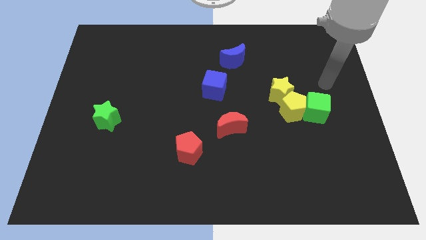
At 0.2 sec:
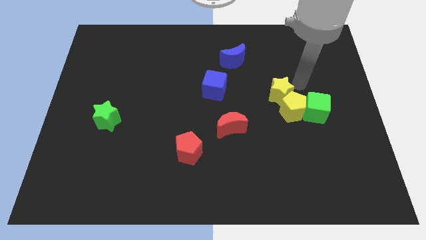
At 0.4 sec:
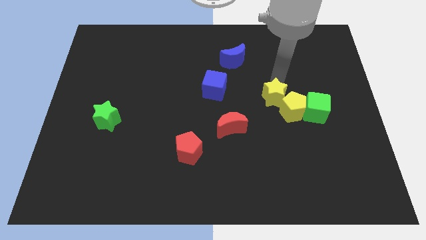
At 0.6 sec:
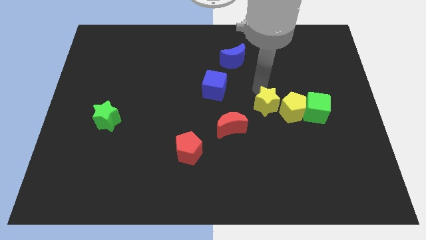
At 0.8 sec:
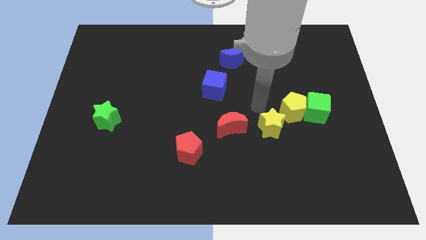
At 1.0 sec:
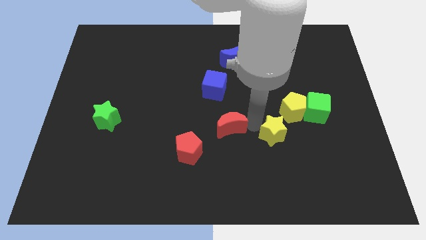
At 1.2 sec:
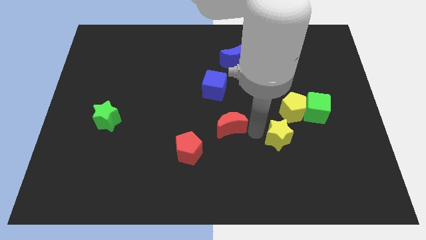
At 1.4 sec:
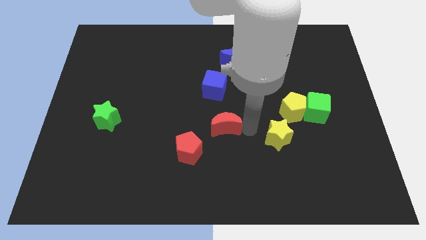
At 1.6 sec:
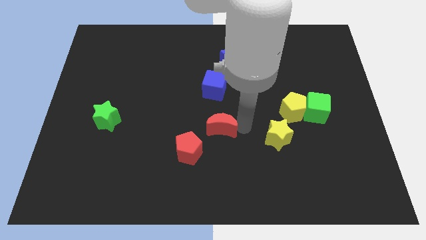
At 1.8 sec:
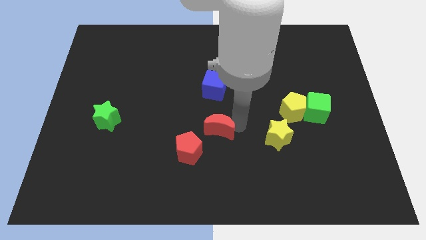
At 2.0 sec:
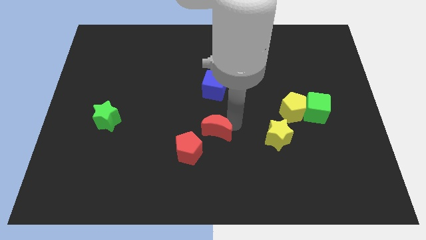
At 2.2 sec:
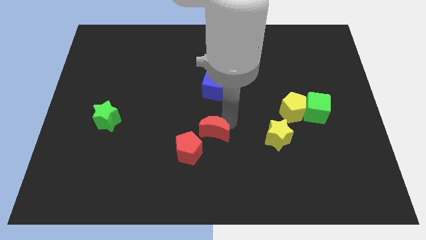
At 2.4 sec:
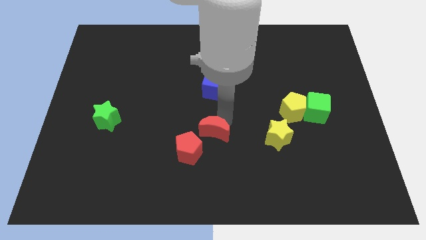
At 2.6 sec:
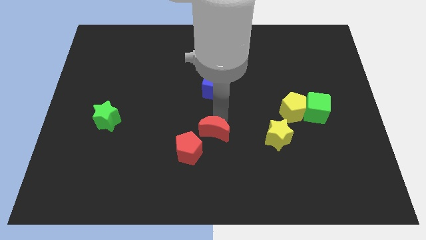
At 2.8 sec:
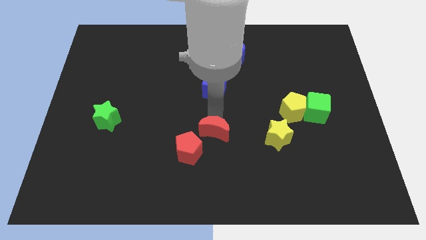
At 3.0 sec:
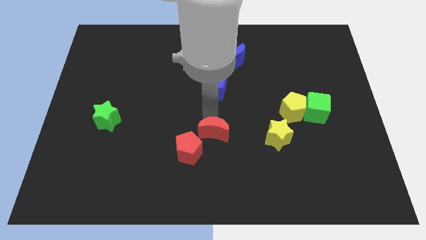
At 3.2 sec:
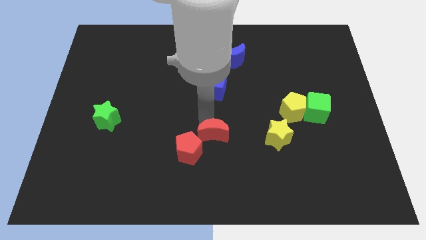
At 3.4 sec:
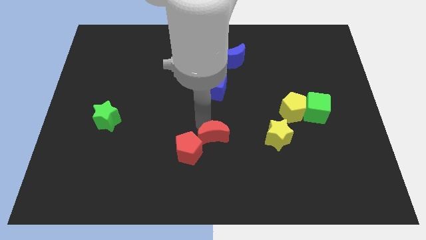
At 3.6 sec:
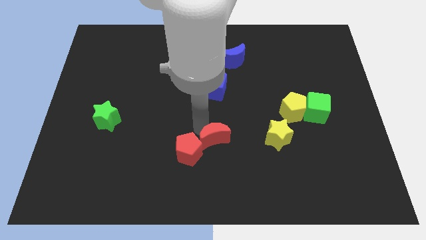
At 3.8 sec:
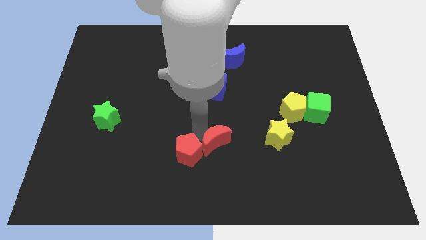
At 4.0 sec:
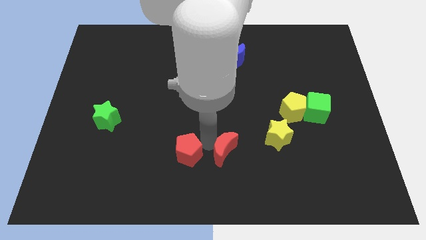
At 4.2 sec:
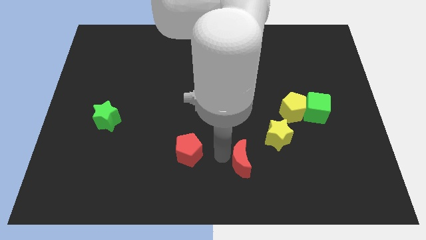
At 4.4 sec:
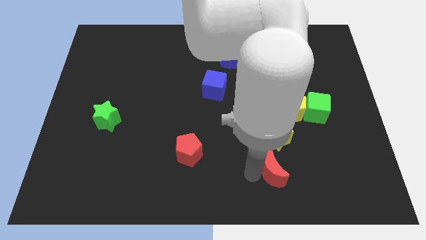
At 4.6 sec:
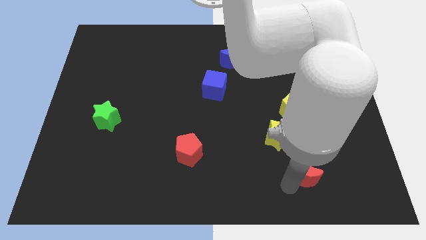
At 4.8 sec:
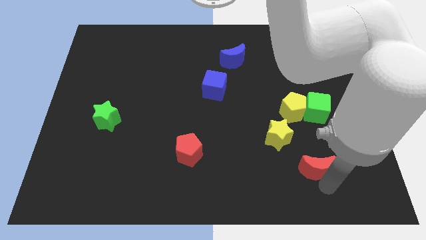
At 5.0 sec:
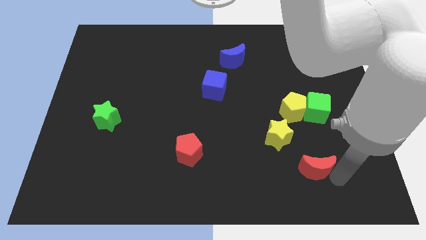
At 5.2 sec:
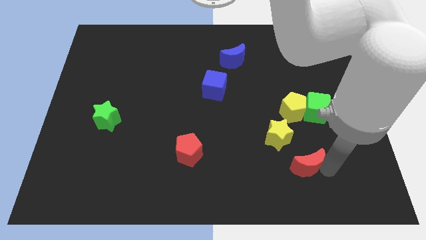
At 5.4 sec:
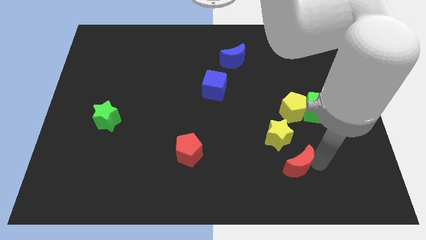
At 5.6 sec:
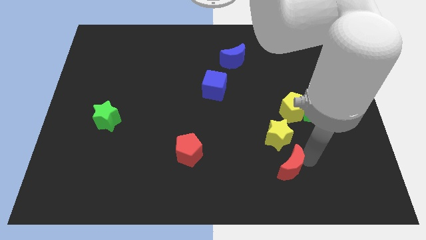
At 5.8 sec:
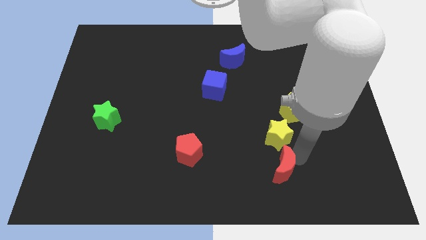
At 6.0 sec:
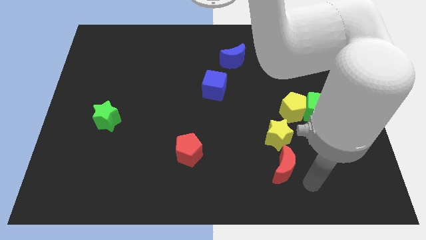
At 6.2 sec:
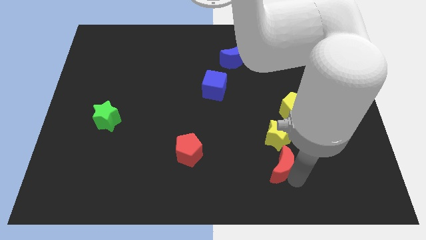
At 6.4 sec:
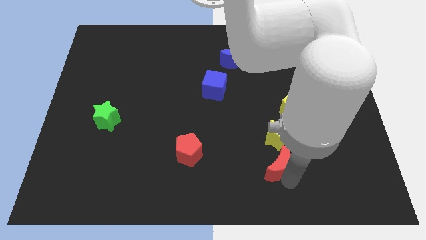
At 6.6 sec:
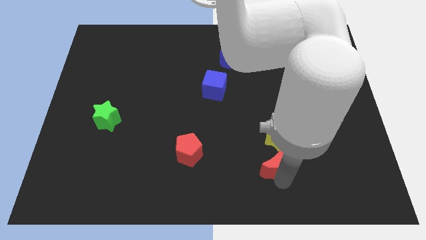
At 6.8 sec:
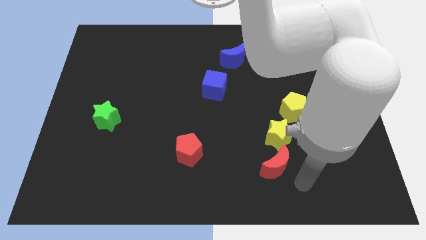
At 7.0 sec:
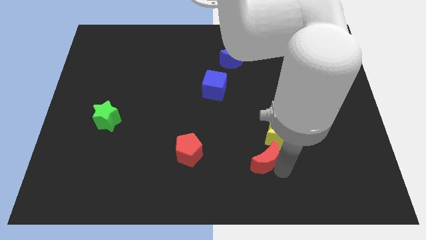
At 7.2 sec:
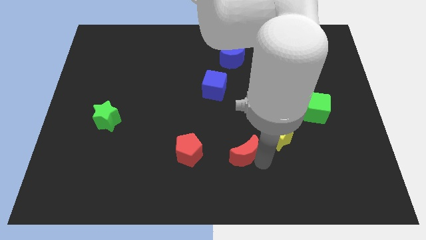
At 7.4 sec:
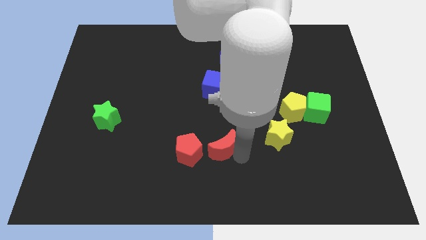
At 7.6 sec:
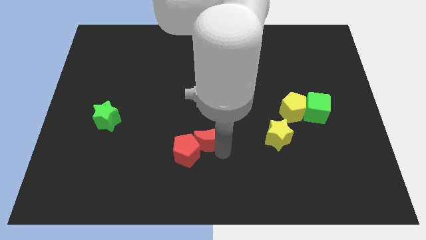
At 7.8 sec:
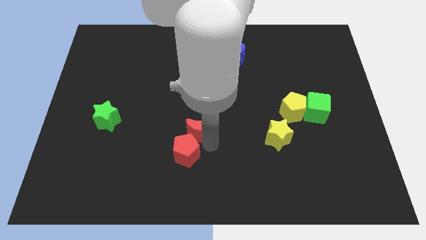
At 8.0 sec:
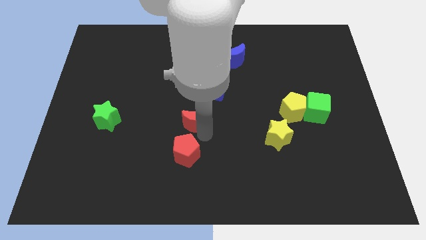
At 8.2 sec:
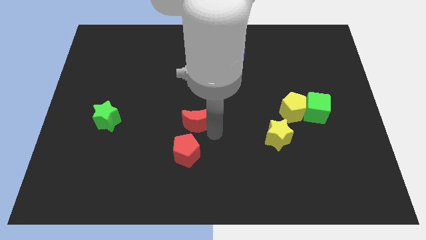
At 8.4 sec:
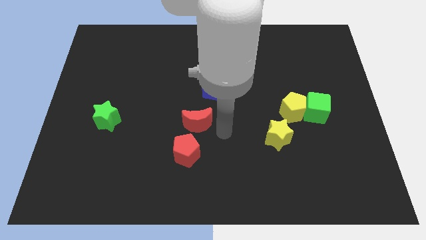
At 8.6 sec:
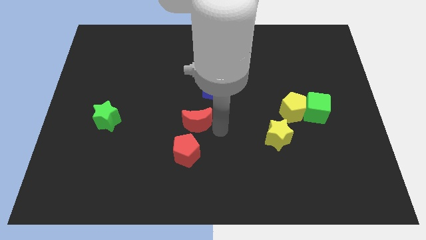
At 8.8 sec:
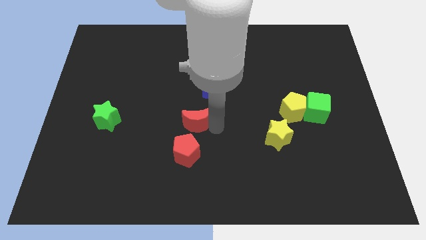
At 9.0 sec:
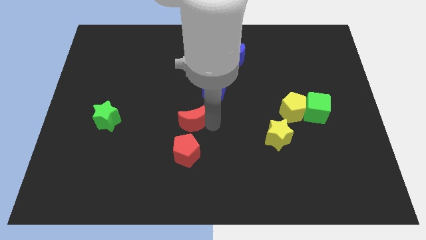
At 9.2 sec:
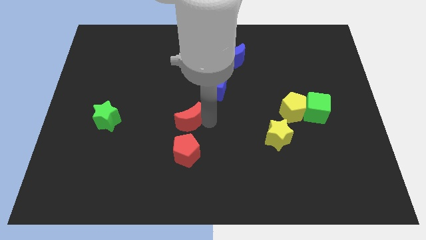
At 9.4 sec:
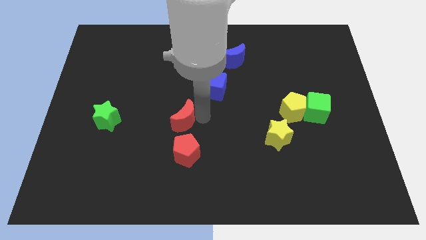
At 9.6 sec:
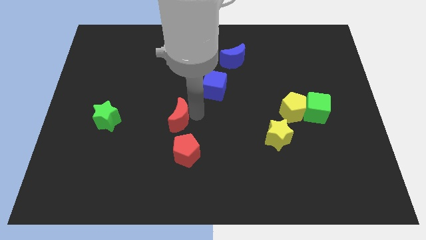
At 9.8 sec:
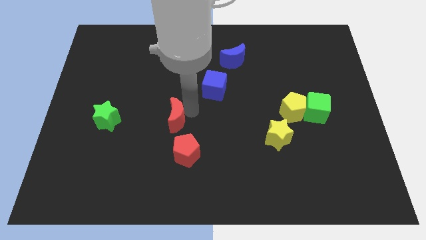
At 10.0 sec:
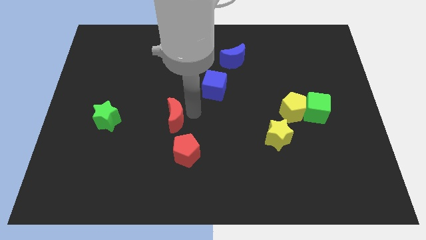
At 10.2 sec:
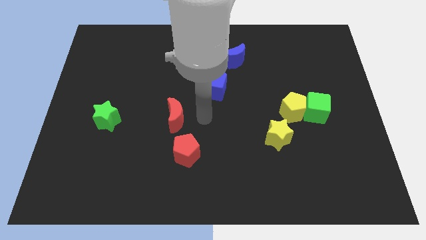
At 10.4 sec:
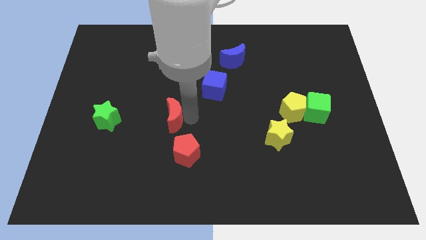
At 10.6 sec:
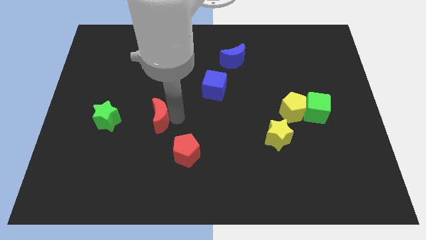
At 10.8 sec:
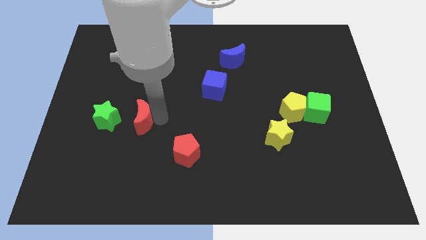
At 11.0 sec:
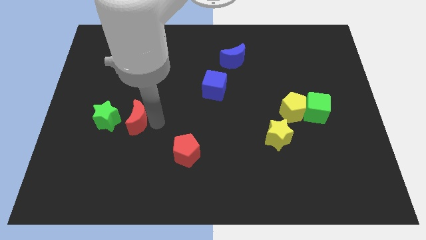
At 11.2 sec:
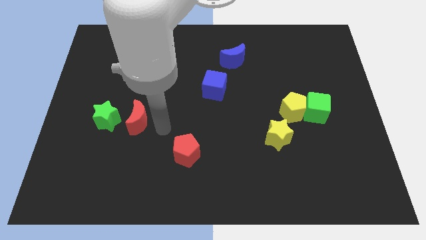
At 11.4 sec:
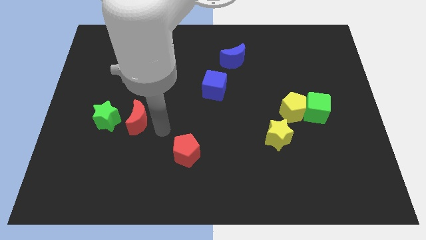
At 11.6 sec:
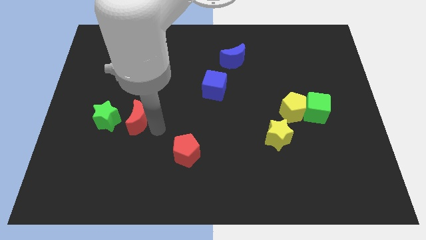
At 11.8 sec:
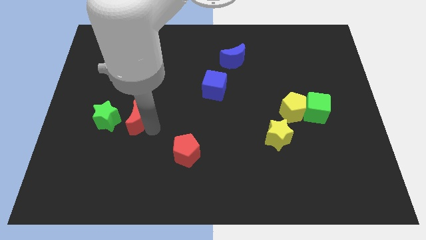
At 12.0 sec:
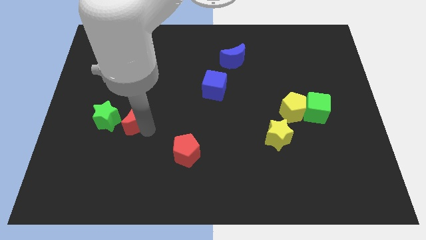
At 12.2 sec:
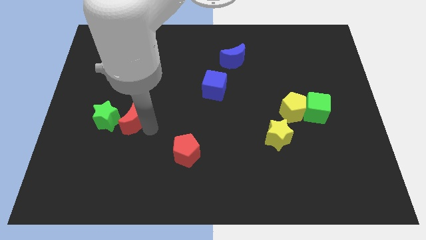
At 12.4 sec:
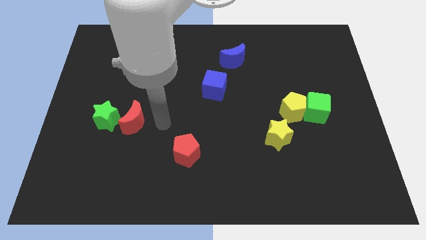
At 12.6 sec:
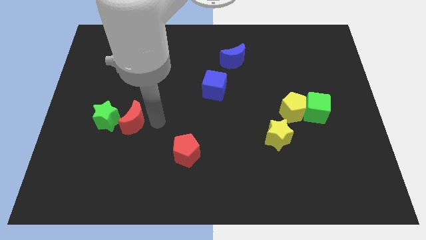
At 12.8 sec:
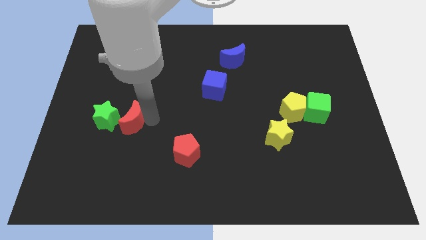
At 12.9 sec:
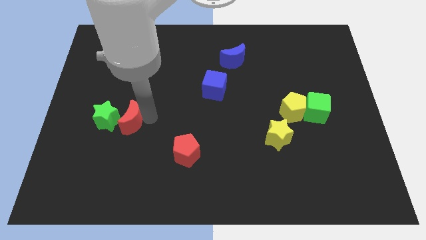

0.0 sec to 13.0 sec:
put the red moon to the green star

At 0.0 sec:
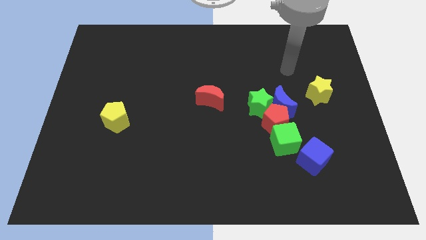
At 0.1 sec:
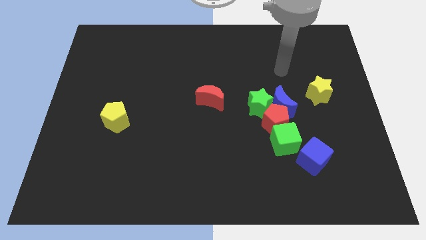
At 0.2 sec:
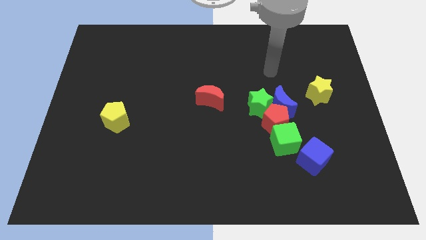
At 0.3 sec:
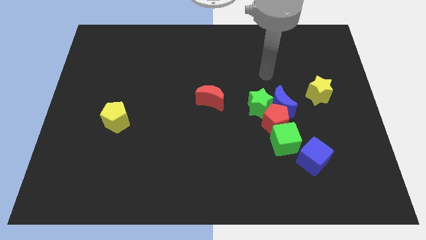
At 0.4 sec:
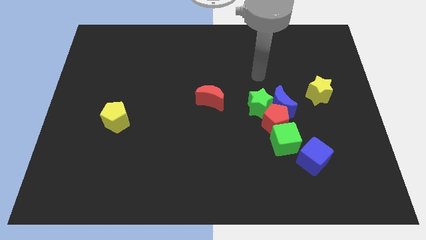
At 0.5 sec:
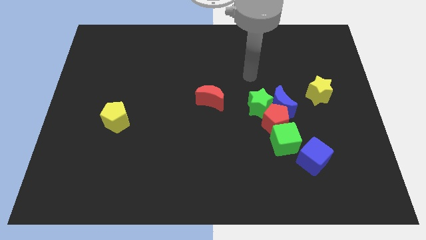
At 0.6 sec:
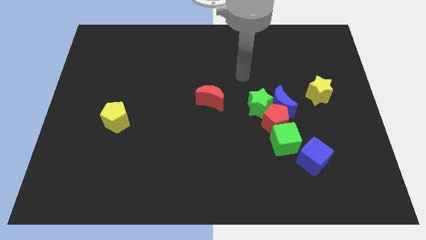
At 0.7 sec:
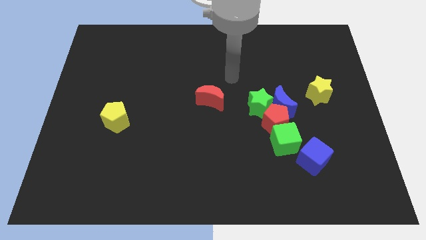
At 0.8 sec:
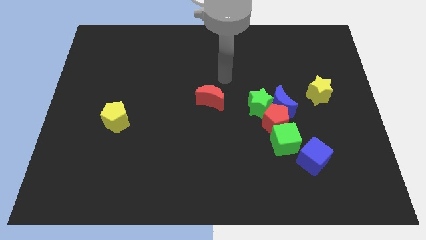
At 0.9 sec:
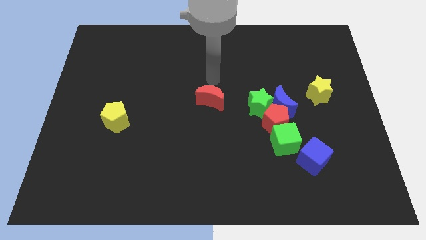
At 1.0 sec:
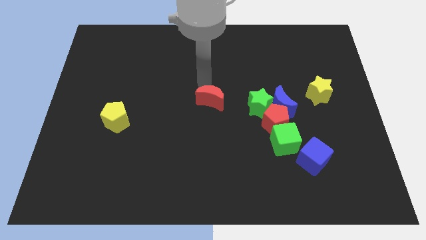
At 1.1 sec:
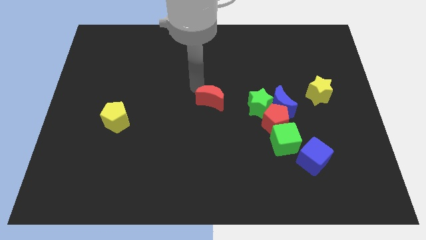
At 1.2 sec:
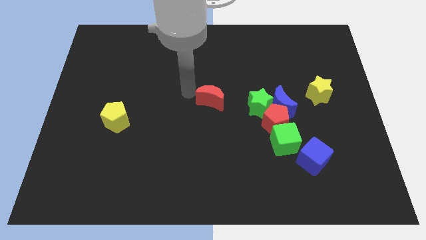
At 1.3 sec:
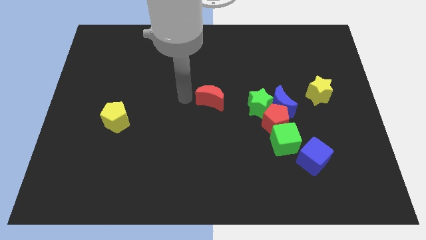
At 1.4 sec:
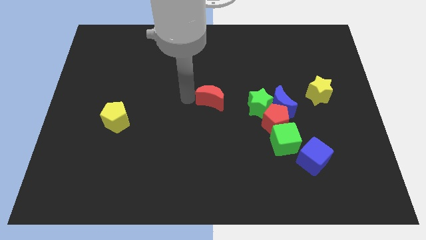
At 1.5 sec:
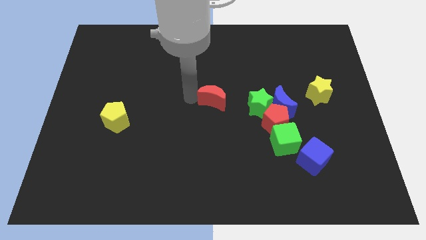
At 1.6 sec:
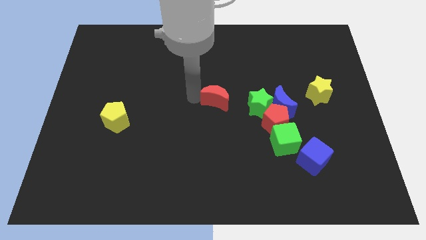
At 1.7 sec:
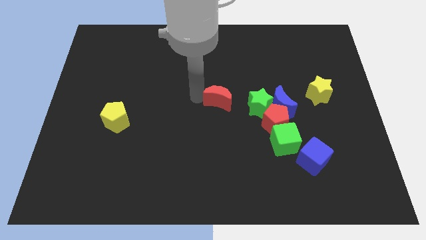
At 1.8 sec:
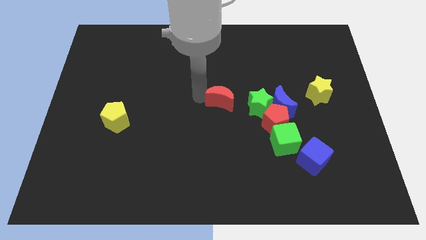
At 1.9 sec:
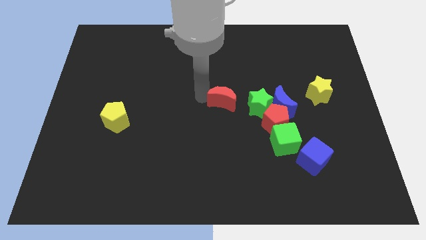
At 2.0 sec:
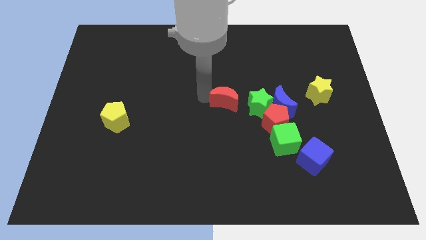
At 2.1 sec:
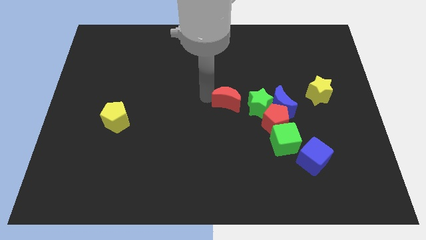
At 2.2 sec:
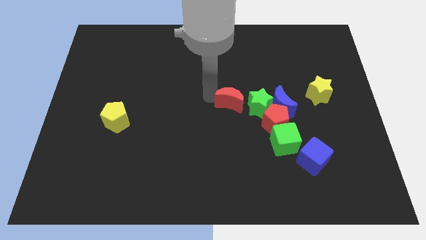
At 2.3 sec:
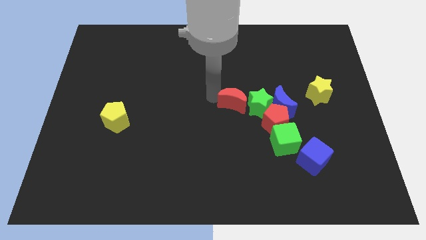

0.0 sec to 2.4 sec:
slide the red moon towards the green star
